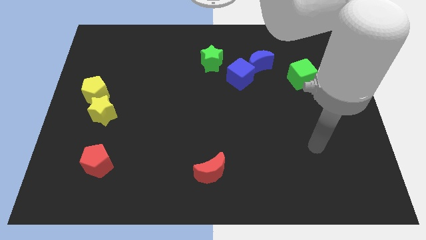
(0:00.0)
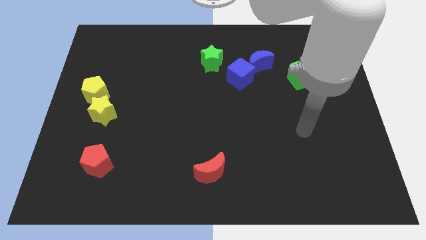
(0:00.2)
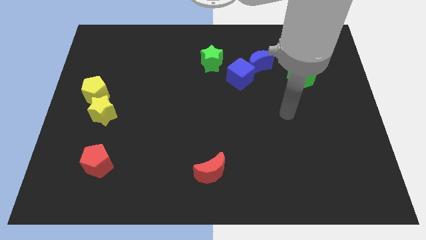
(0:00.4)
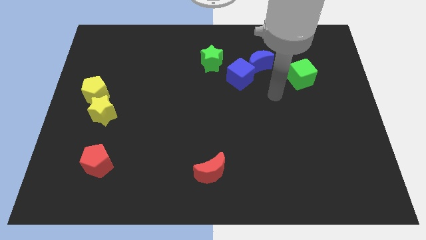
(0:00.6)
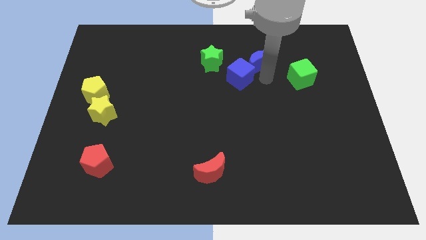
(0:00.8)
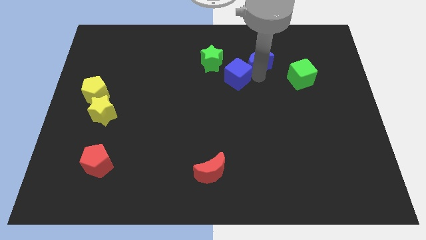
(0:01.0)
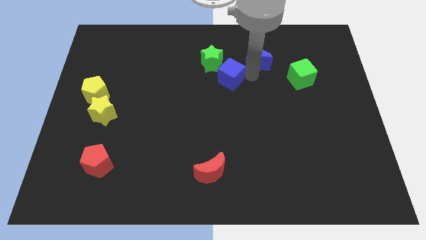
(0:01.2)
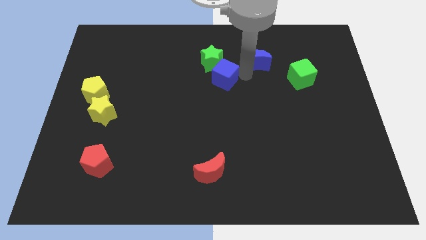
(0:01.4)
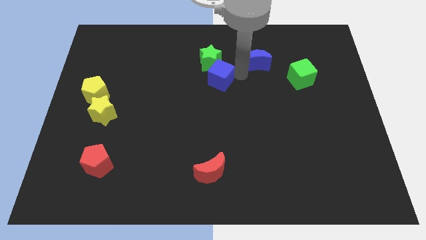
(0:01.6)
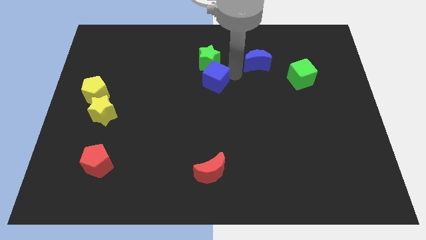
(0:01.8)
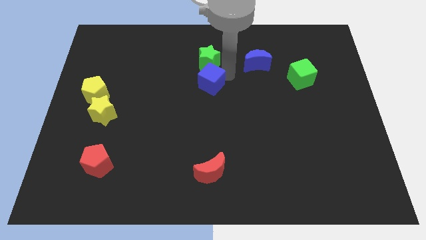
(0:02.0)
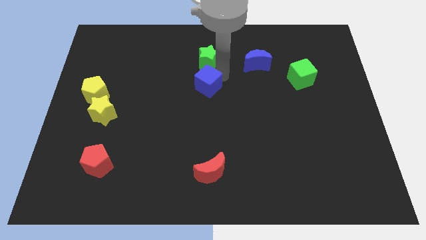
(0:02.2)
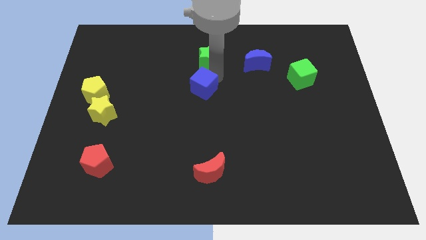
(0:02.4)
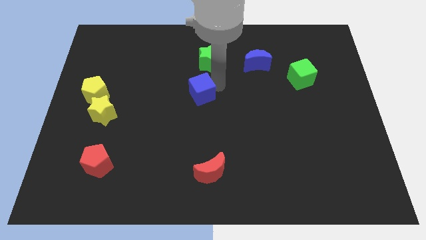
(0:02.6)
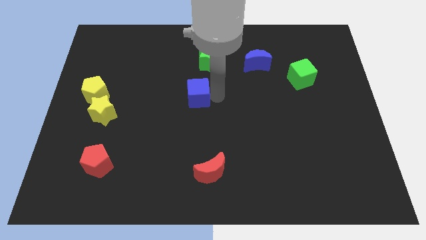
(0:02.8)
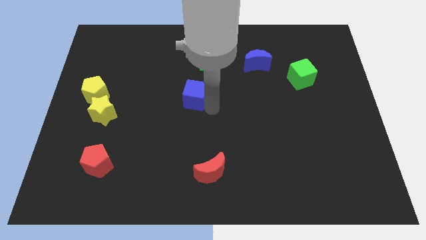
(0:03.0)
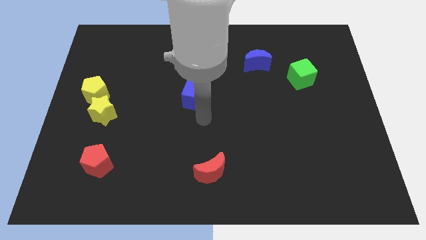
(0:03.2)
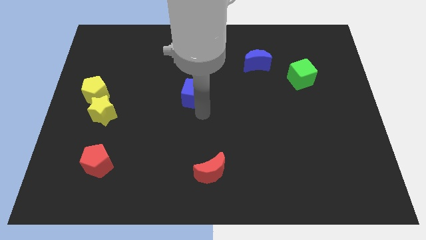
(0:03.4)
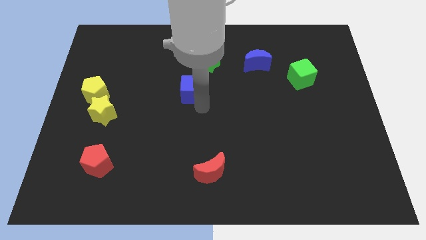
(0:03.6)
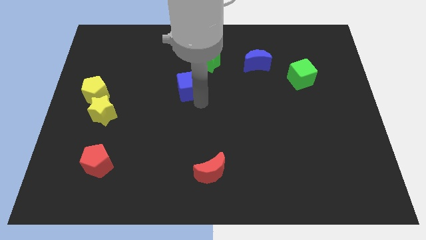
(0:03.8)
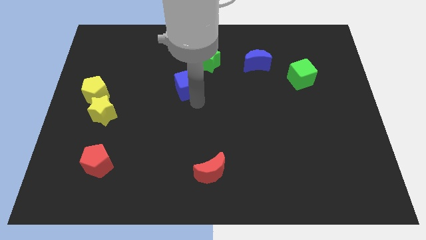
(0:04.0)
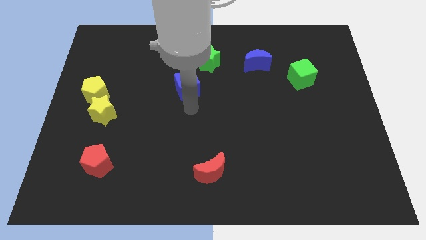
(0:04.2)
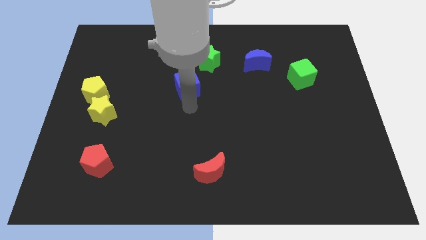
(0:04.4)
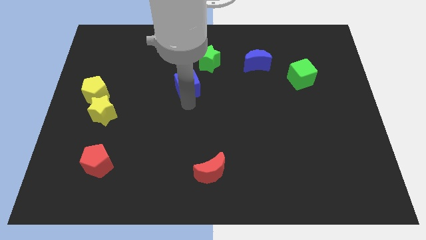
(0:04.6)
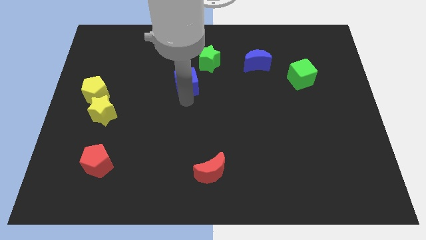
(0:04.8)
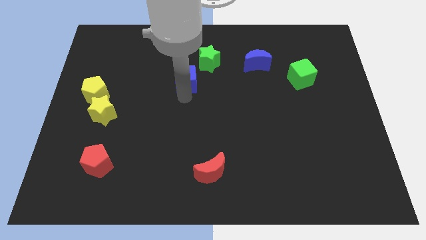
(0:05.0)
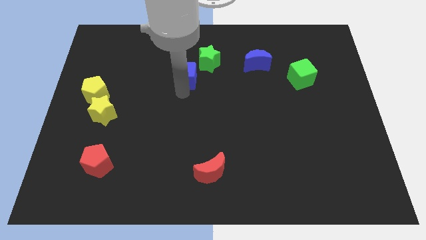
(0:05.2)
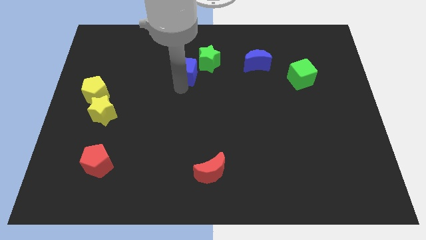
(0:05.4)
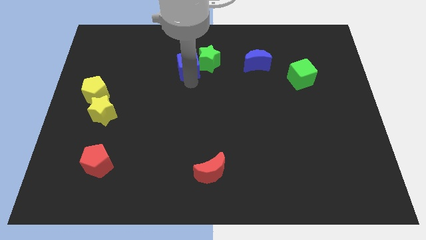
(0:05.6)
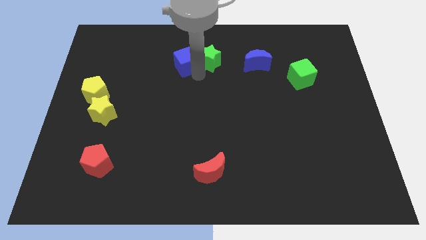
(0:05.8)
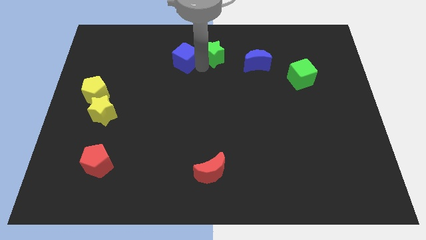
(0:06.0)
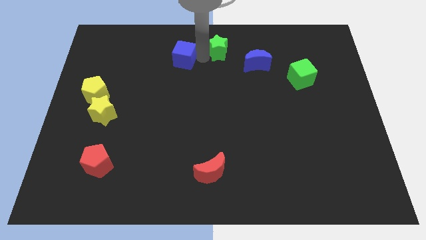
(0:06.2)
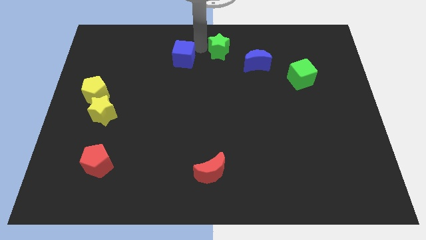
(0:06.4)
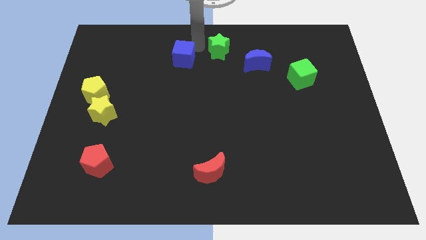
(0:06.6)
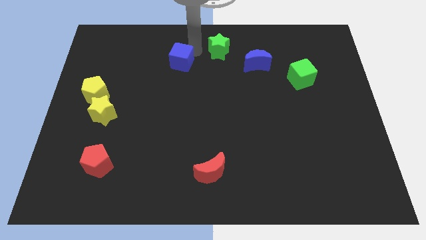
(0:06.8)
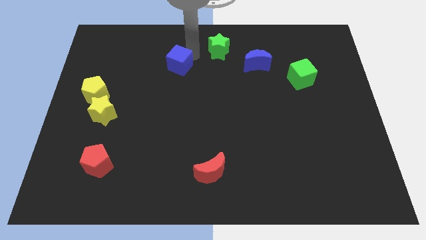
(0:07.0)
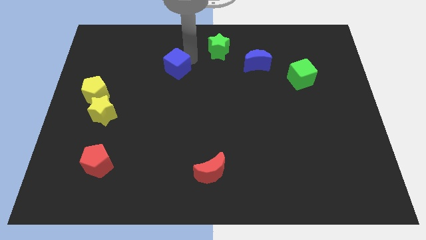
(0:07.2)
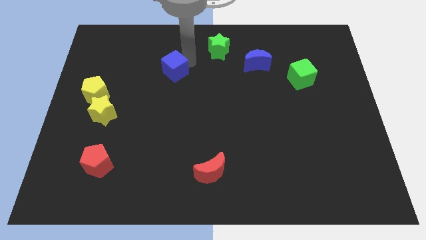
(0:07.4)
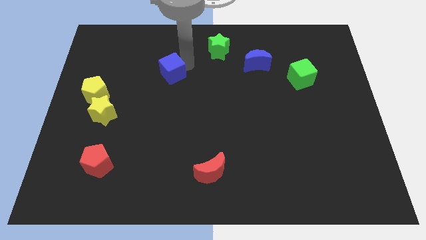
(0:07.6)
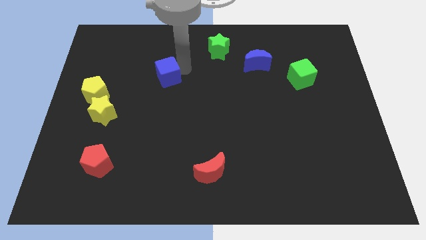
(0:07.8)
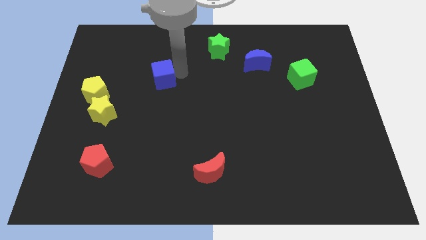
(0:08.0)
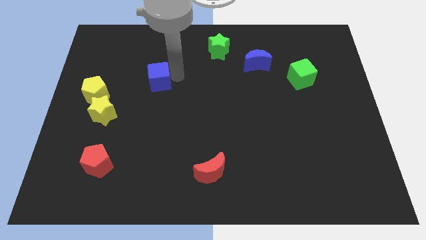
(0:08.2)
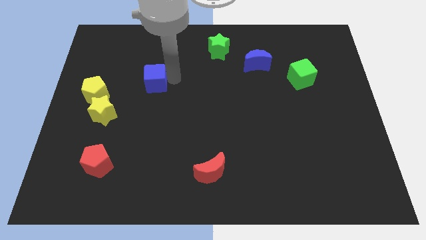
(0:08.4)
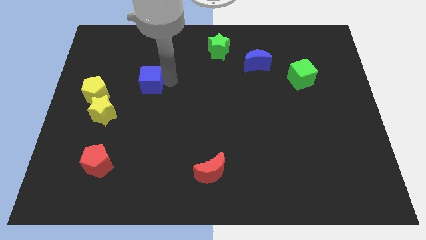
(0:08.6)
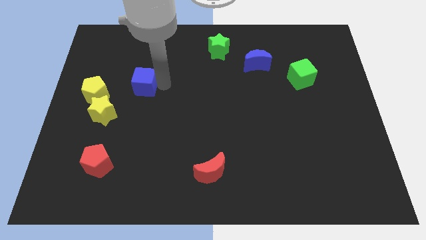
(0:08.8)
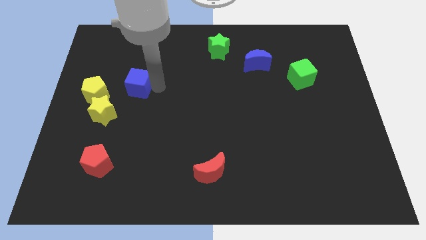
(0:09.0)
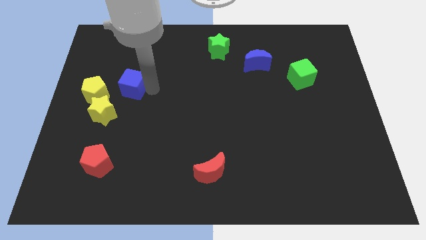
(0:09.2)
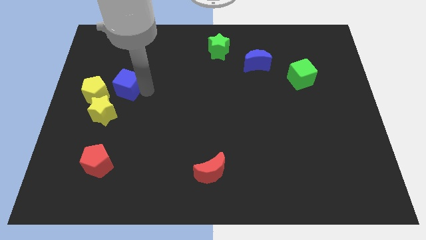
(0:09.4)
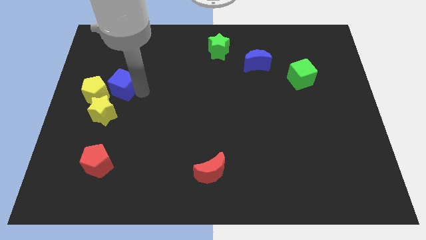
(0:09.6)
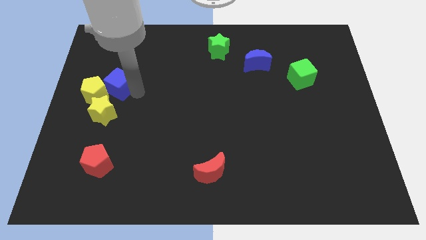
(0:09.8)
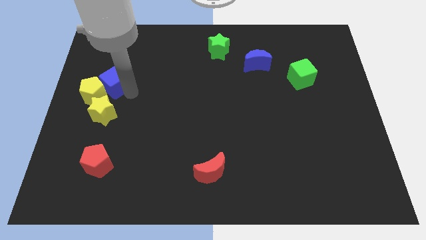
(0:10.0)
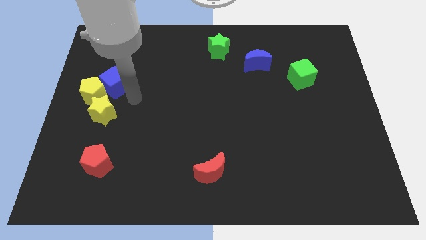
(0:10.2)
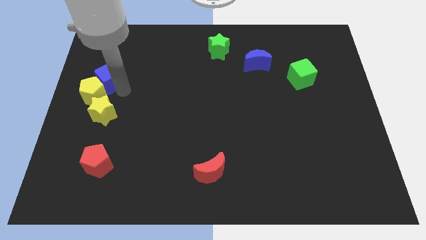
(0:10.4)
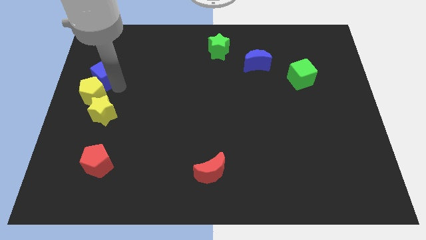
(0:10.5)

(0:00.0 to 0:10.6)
move the blue cube to the left side of the board

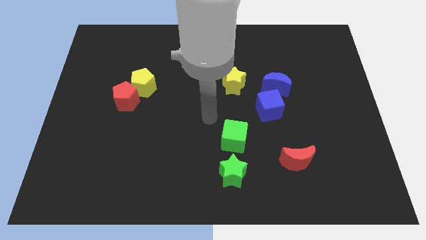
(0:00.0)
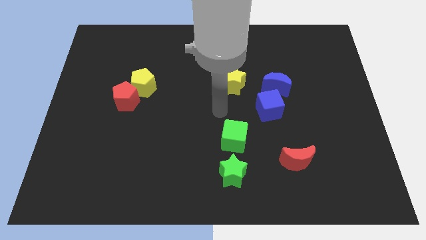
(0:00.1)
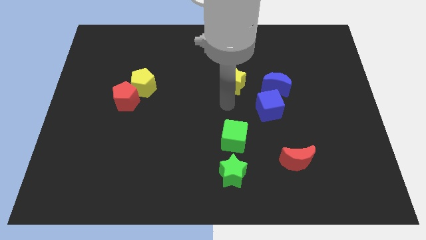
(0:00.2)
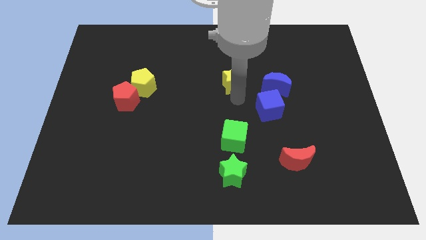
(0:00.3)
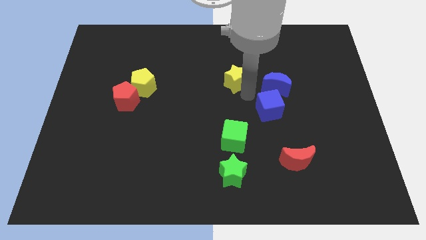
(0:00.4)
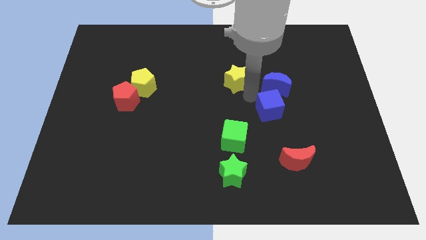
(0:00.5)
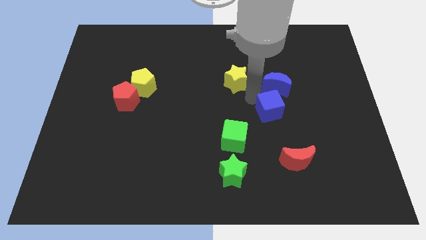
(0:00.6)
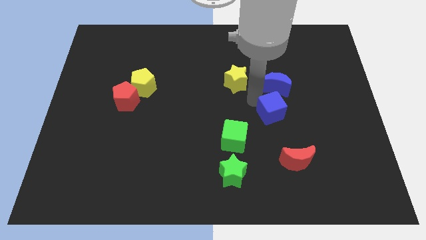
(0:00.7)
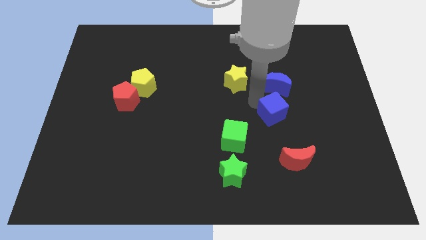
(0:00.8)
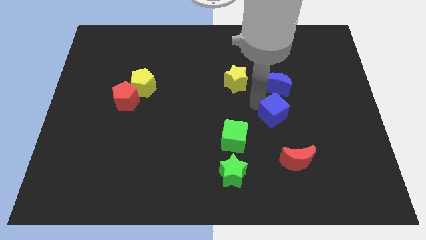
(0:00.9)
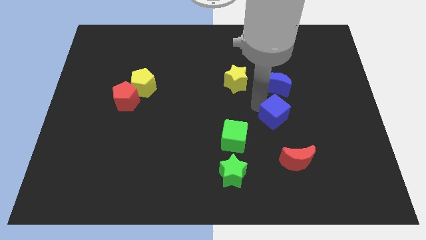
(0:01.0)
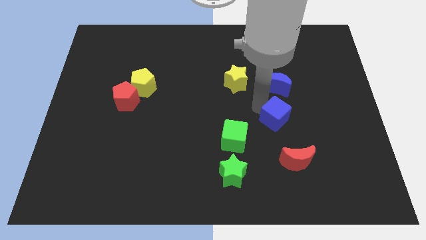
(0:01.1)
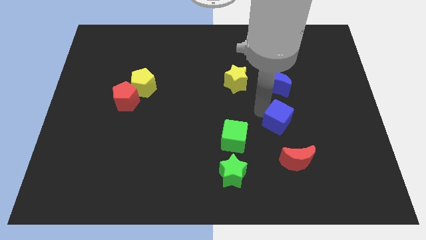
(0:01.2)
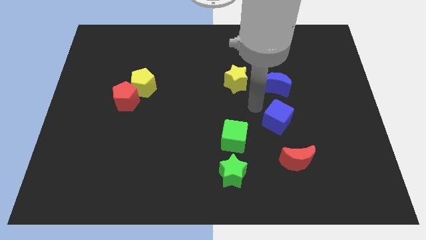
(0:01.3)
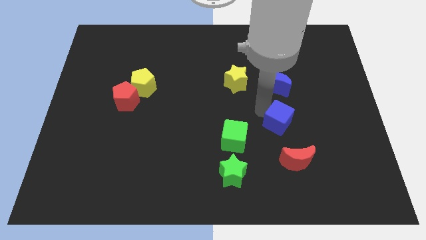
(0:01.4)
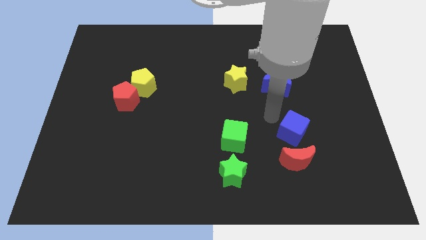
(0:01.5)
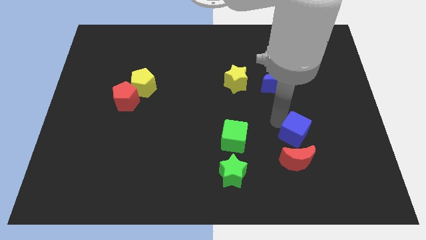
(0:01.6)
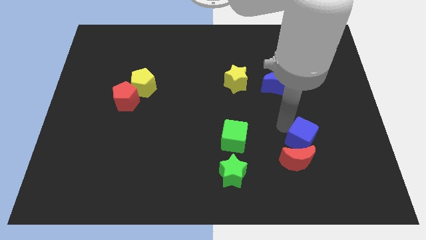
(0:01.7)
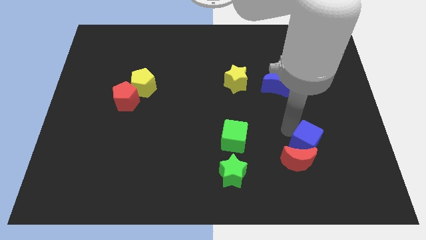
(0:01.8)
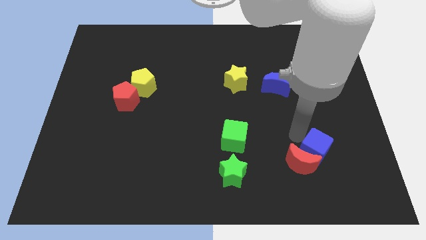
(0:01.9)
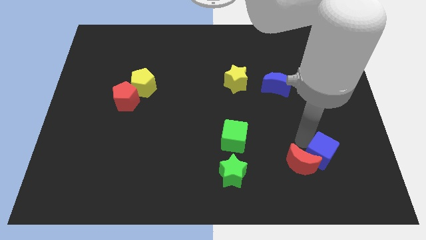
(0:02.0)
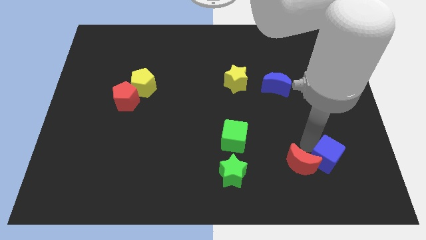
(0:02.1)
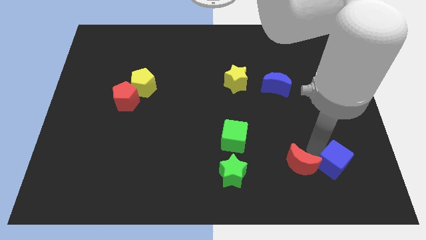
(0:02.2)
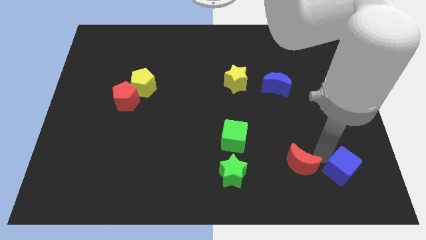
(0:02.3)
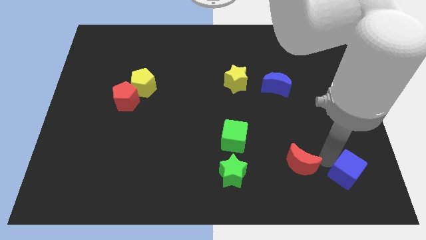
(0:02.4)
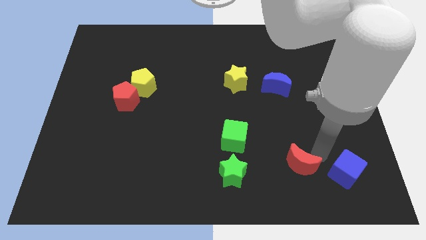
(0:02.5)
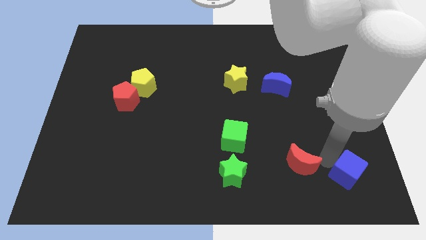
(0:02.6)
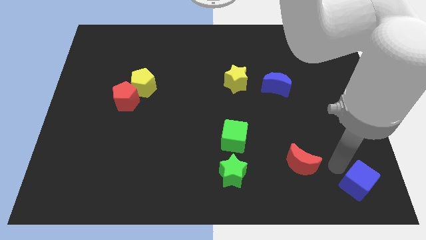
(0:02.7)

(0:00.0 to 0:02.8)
slide the blue cube to the bottom right of the board
